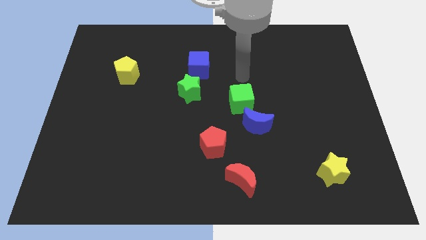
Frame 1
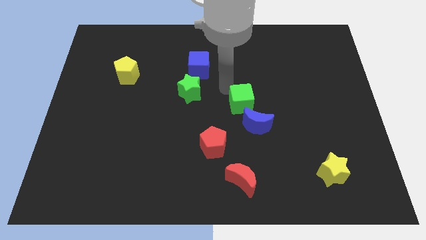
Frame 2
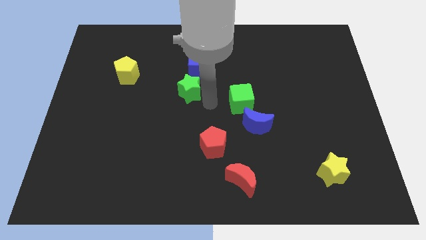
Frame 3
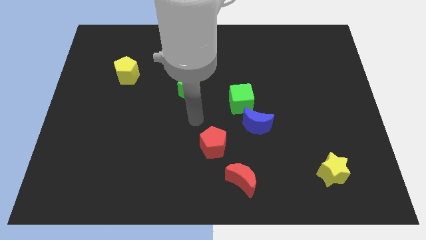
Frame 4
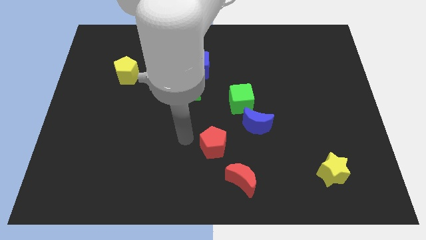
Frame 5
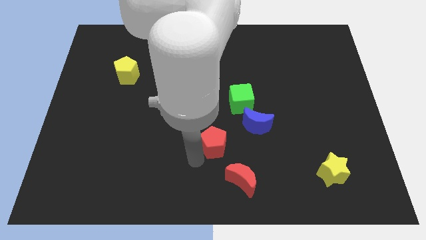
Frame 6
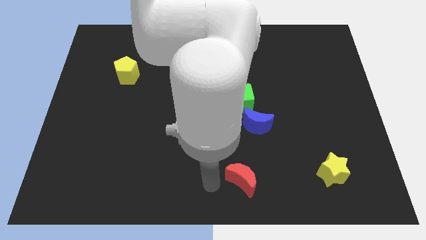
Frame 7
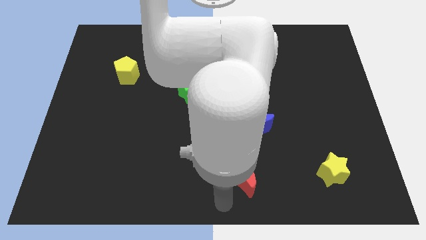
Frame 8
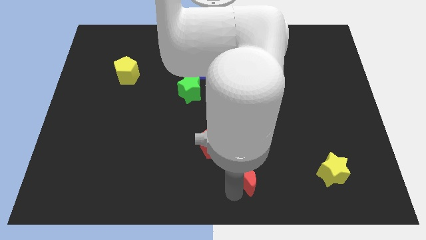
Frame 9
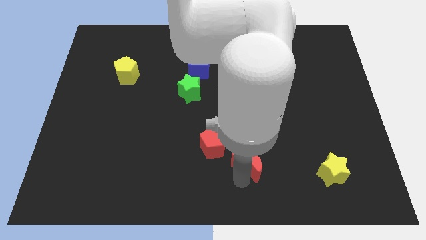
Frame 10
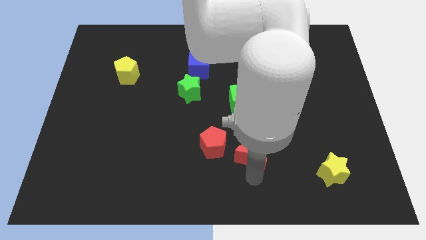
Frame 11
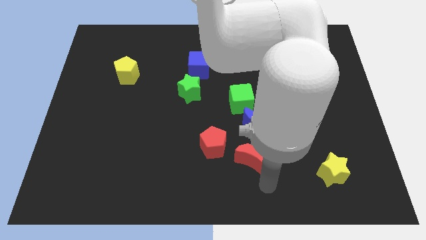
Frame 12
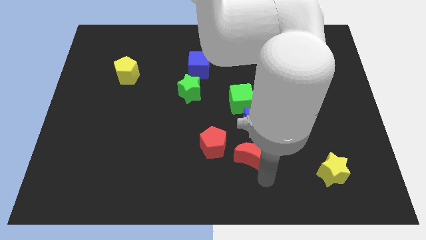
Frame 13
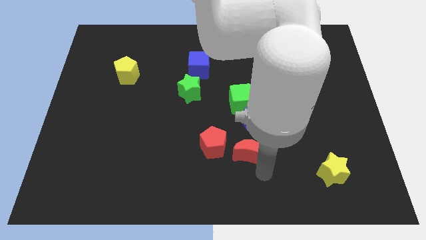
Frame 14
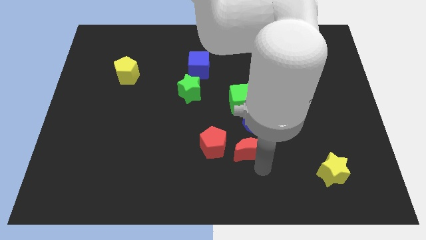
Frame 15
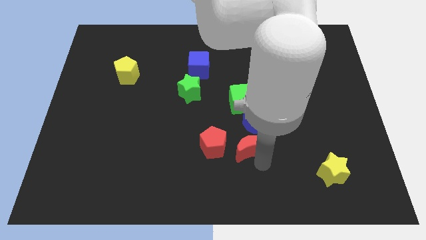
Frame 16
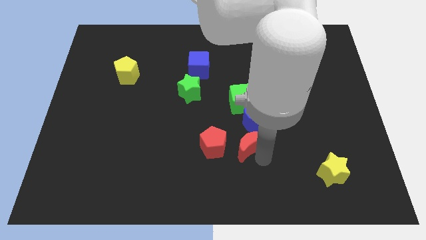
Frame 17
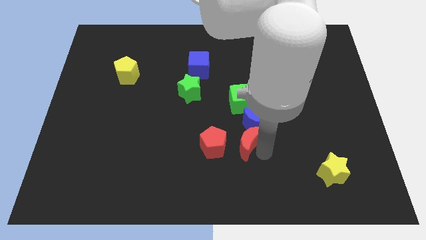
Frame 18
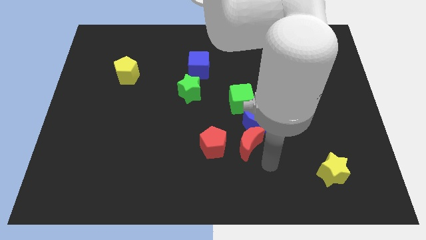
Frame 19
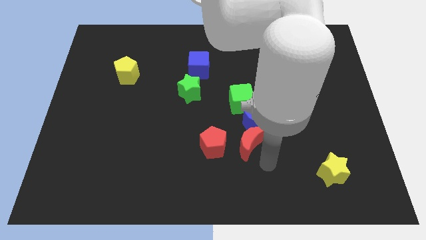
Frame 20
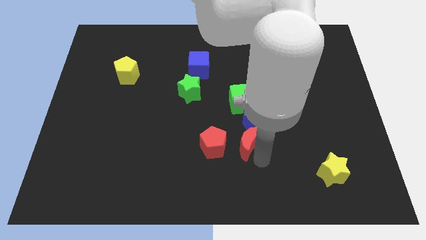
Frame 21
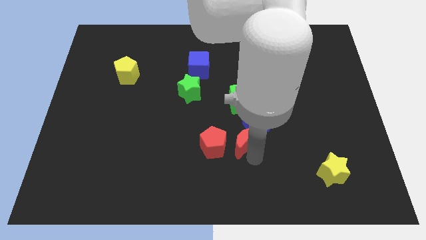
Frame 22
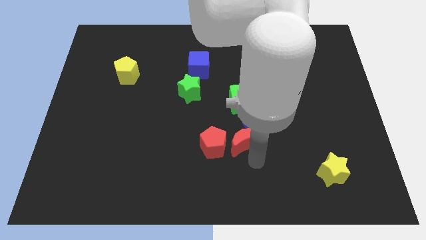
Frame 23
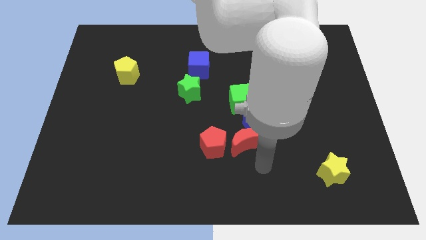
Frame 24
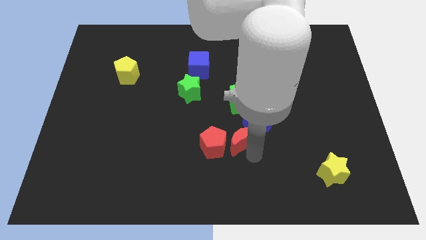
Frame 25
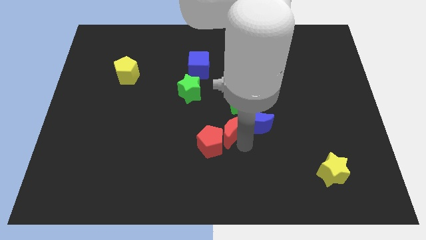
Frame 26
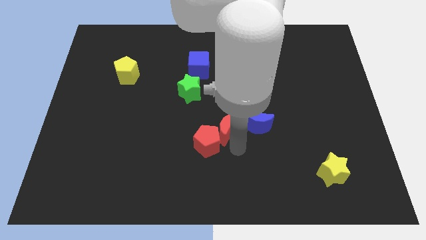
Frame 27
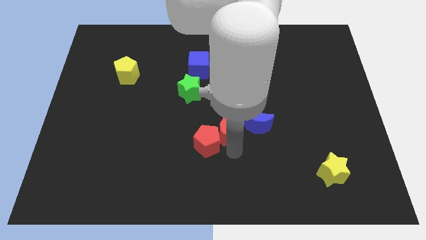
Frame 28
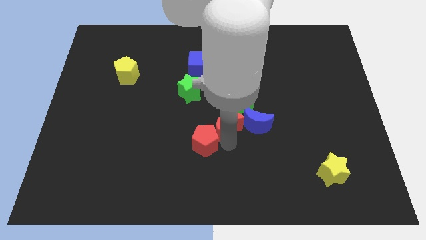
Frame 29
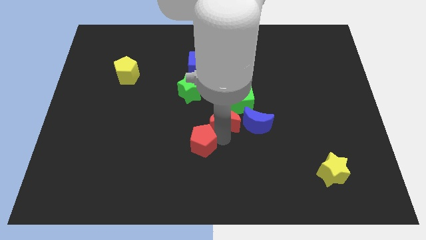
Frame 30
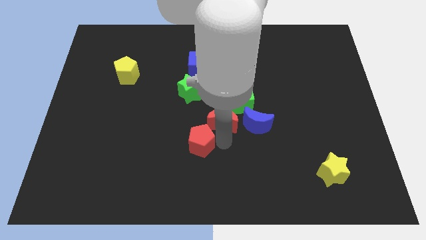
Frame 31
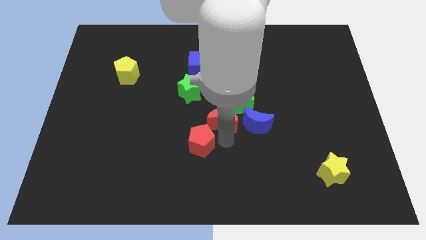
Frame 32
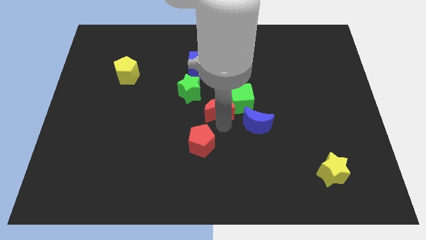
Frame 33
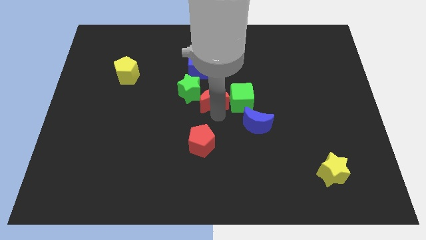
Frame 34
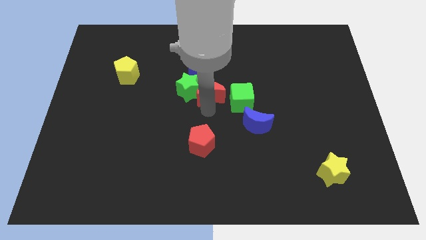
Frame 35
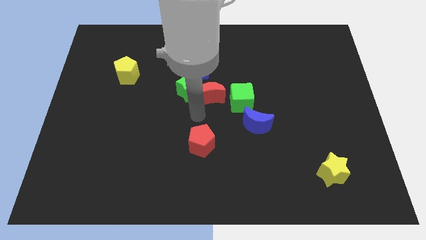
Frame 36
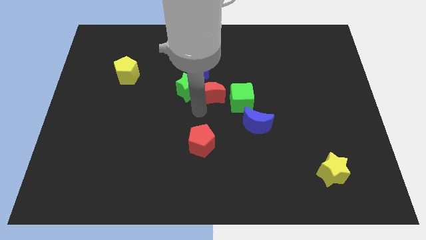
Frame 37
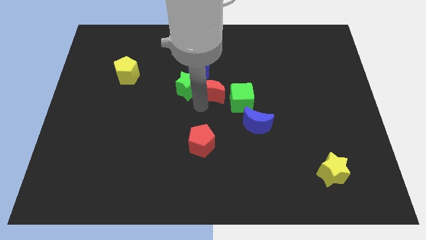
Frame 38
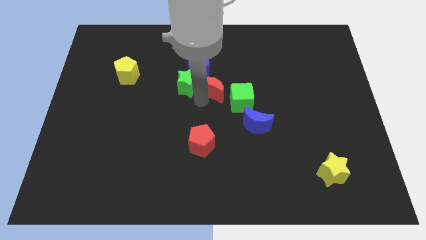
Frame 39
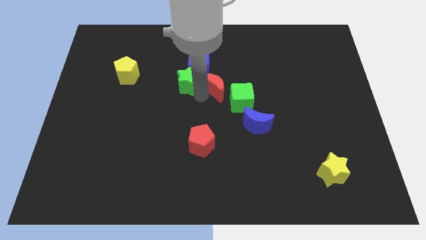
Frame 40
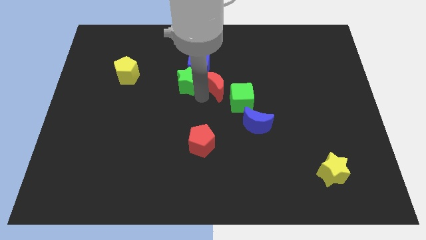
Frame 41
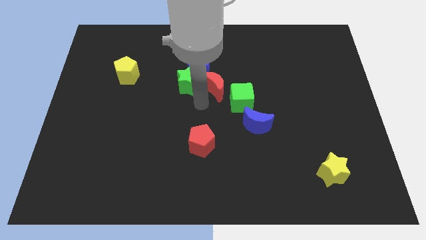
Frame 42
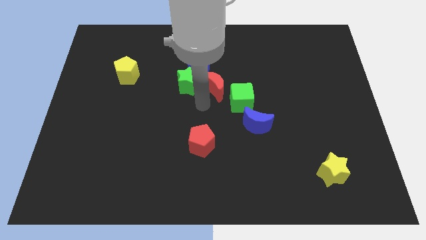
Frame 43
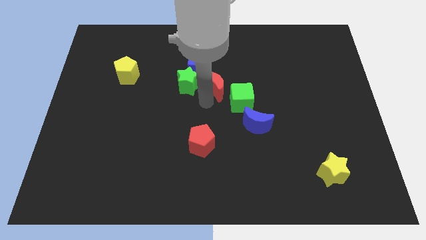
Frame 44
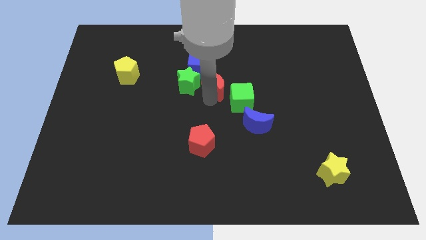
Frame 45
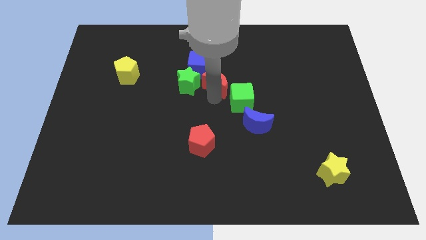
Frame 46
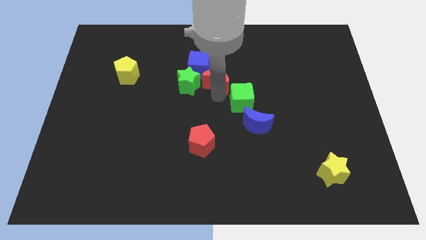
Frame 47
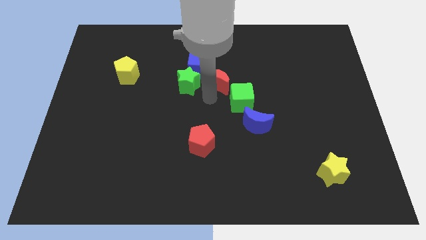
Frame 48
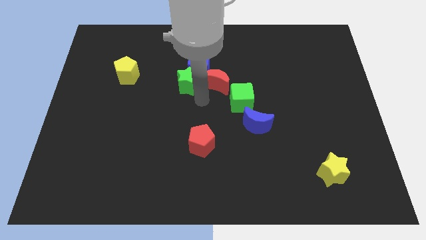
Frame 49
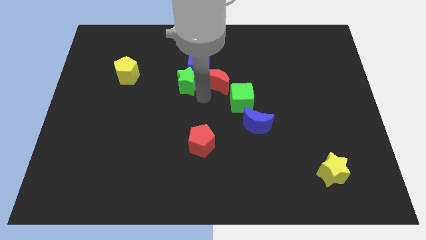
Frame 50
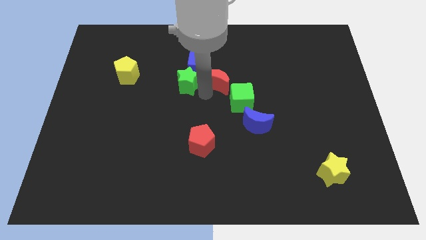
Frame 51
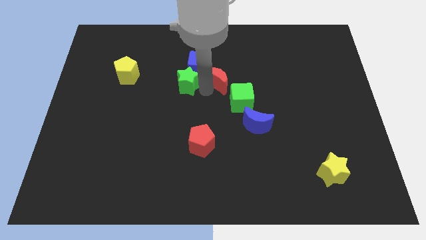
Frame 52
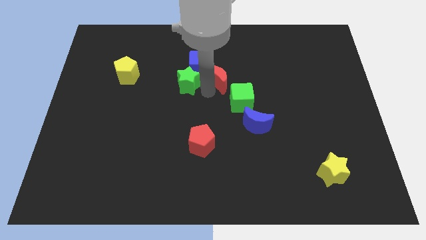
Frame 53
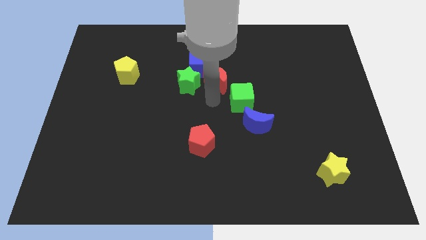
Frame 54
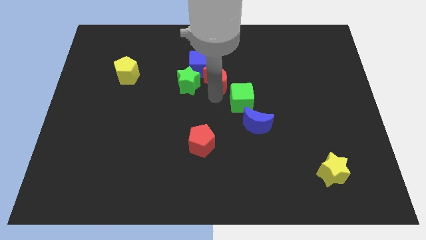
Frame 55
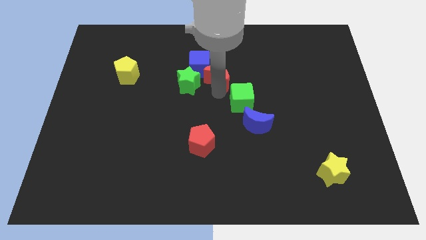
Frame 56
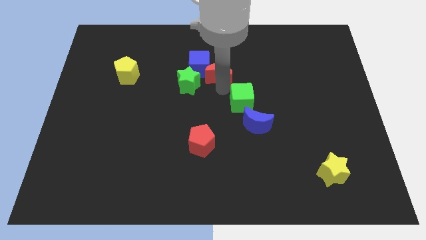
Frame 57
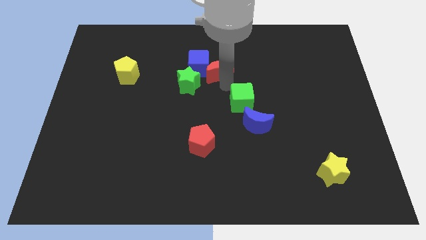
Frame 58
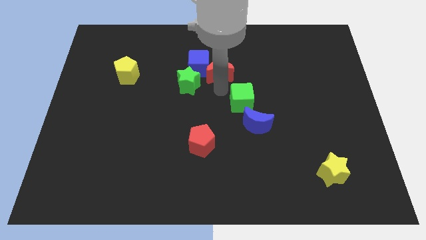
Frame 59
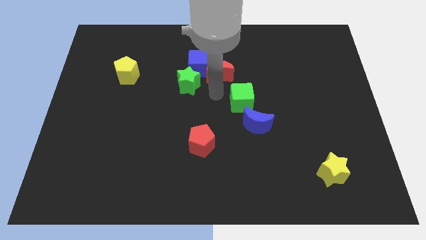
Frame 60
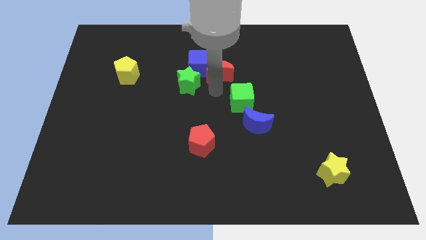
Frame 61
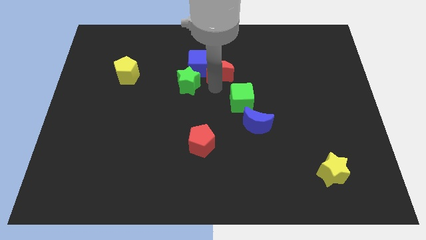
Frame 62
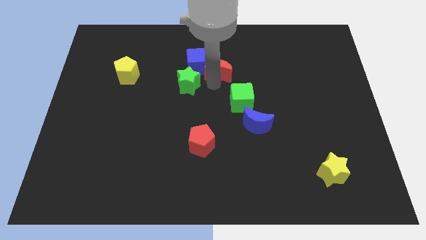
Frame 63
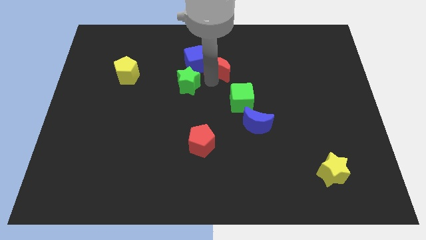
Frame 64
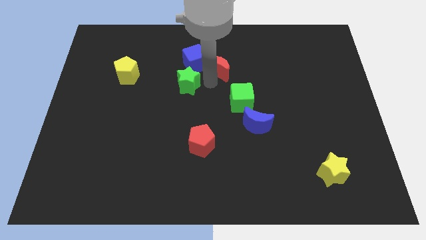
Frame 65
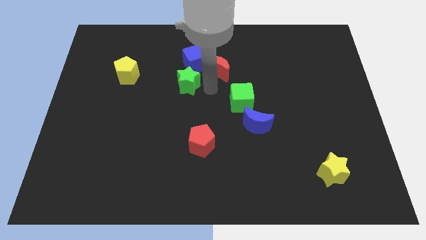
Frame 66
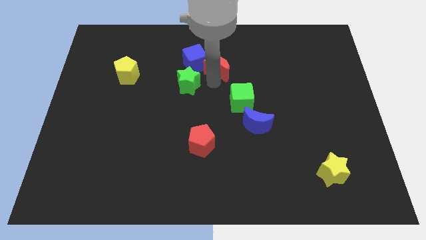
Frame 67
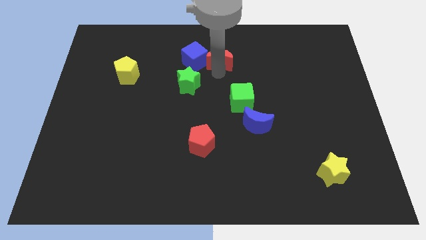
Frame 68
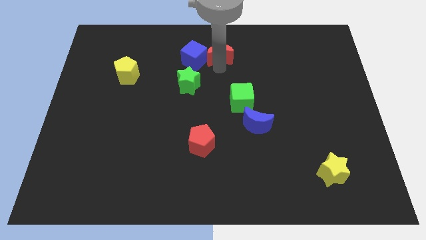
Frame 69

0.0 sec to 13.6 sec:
put the red moon to the towards your base
